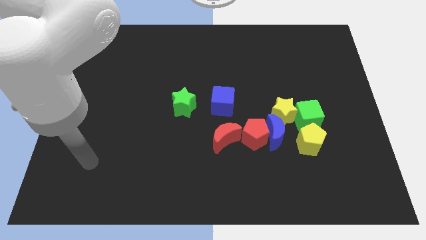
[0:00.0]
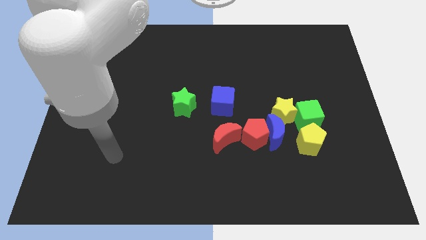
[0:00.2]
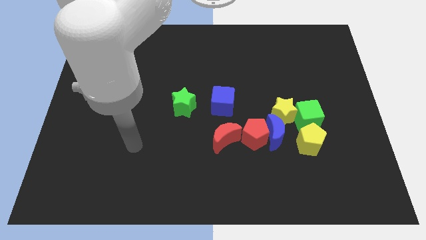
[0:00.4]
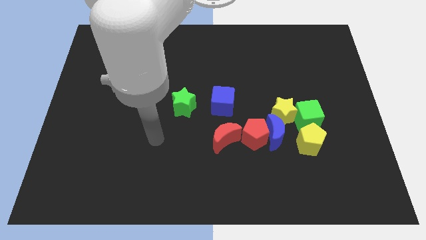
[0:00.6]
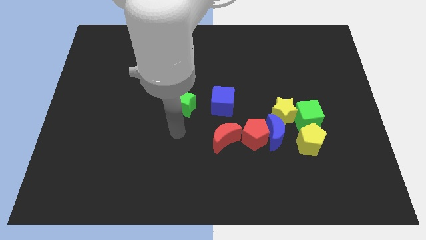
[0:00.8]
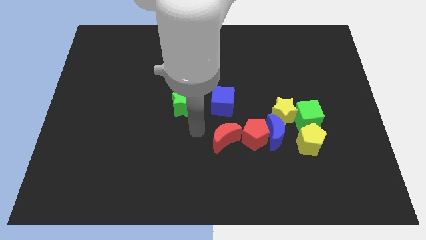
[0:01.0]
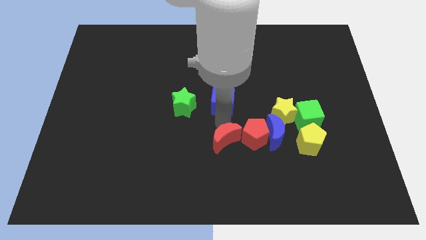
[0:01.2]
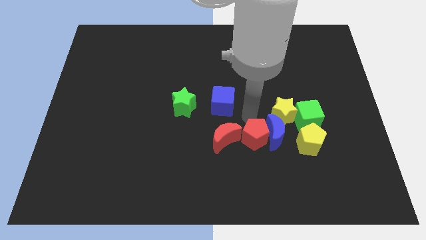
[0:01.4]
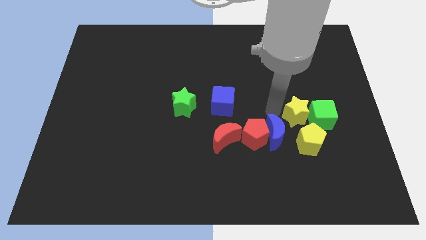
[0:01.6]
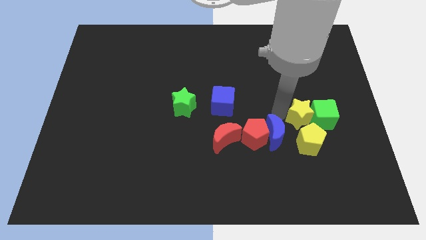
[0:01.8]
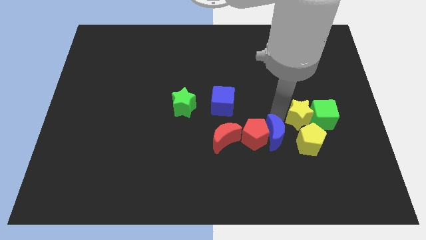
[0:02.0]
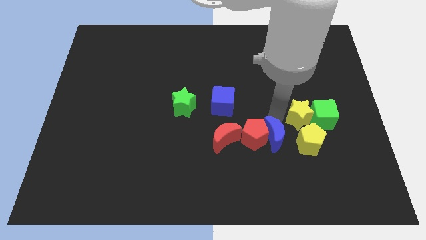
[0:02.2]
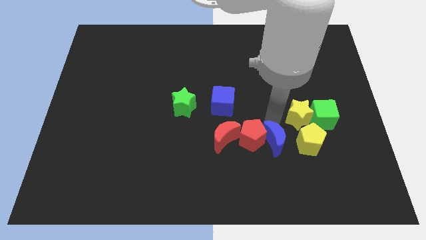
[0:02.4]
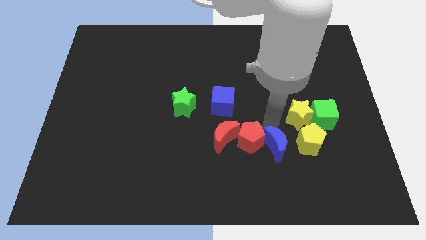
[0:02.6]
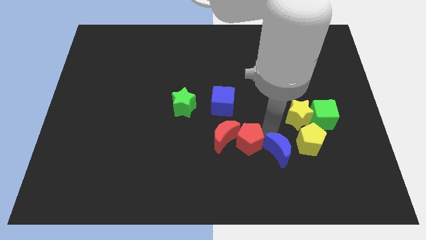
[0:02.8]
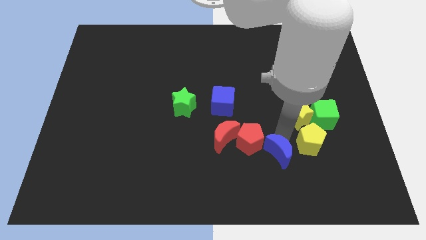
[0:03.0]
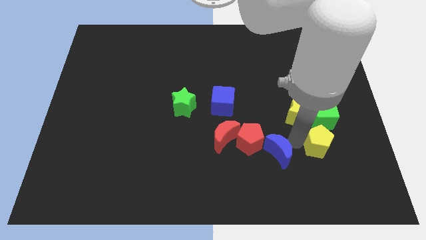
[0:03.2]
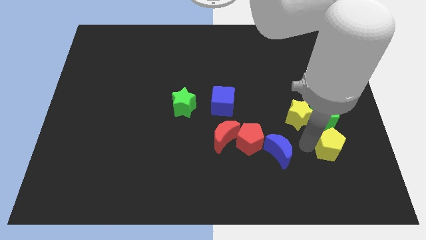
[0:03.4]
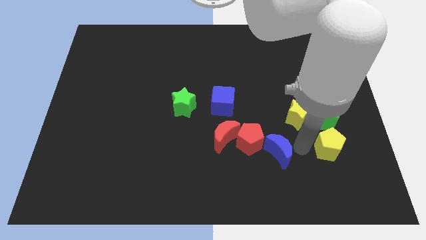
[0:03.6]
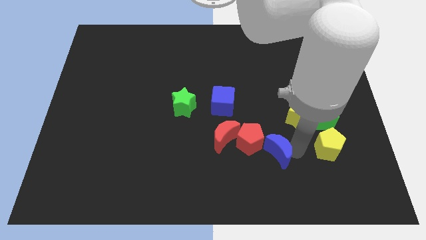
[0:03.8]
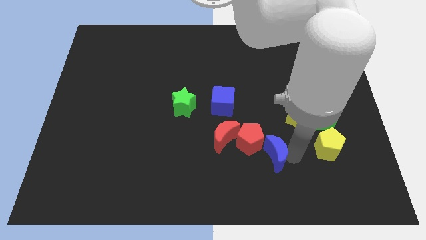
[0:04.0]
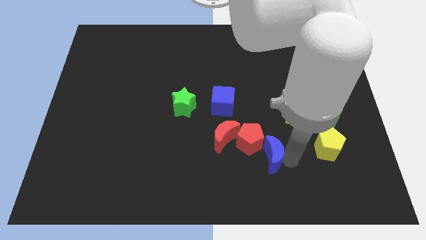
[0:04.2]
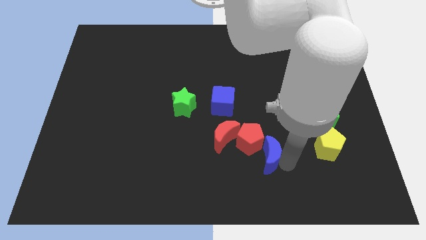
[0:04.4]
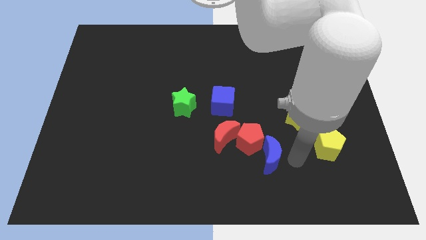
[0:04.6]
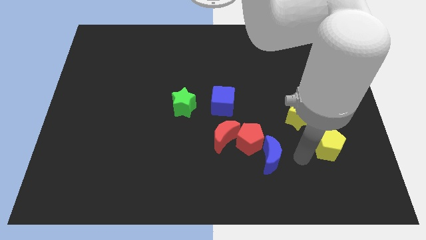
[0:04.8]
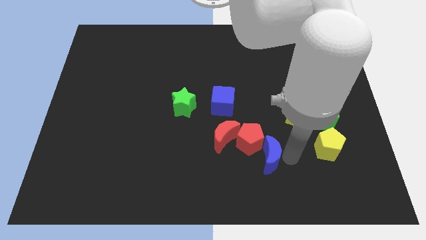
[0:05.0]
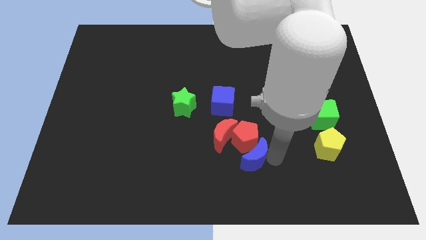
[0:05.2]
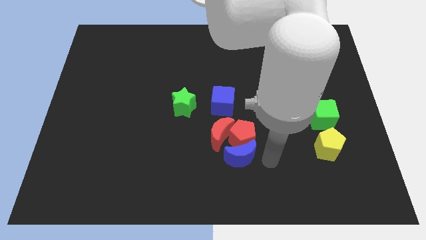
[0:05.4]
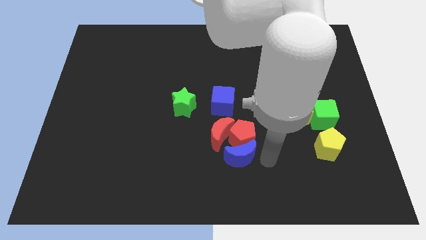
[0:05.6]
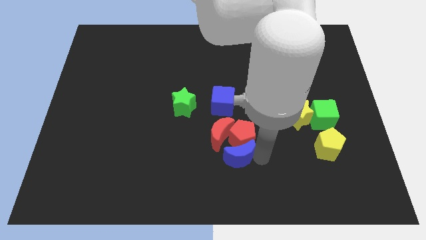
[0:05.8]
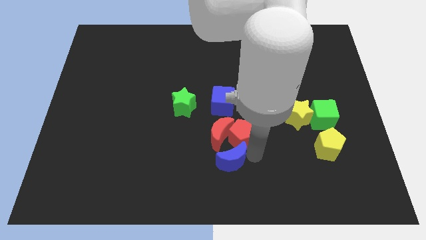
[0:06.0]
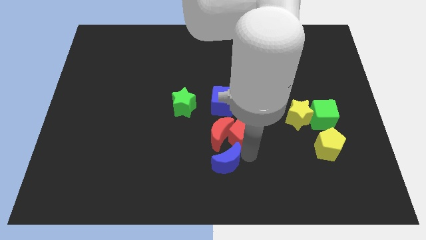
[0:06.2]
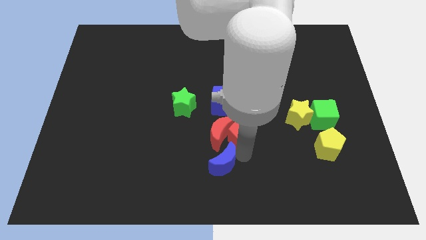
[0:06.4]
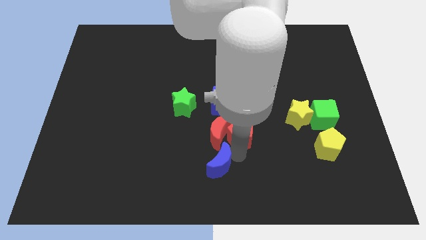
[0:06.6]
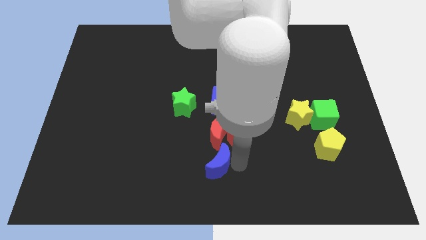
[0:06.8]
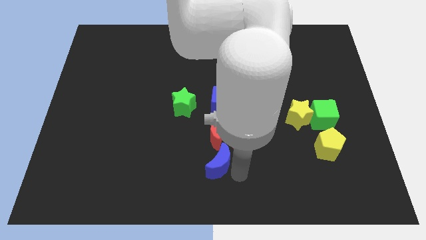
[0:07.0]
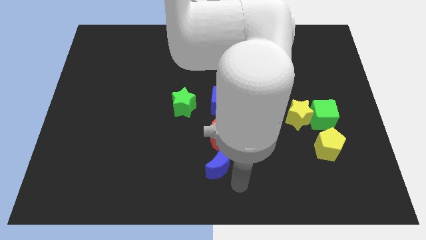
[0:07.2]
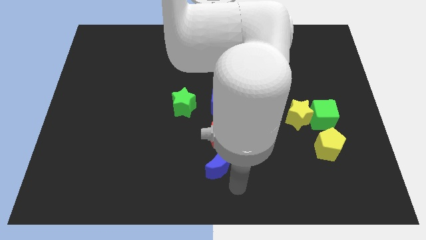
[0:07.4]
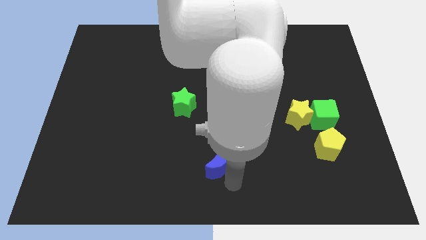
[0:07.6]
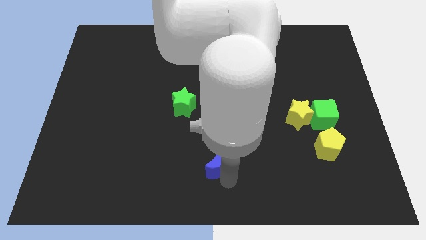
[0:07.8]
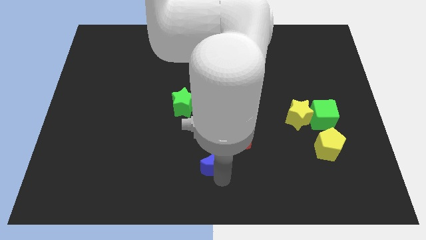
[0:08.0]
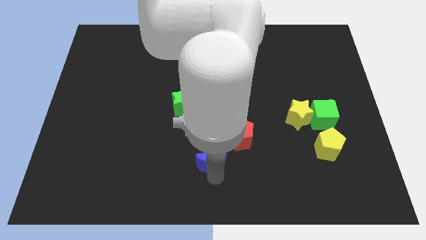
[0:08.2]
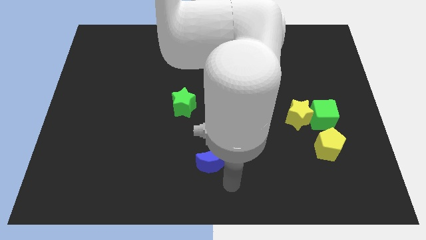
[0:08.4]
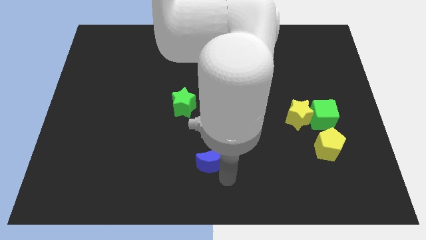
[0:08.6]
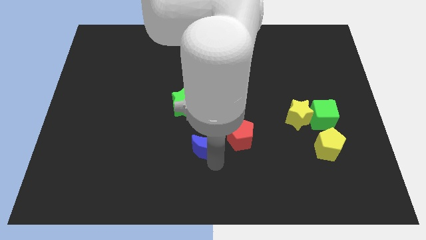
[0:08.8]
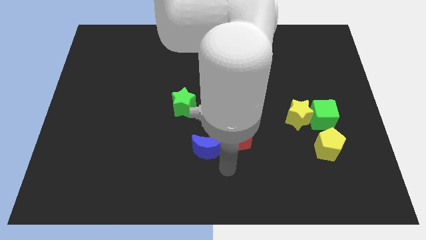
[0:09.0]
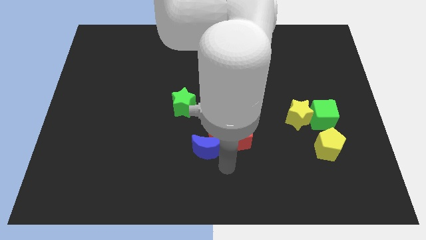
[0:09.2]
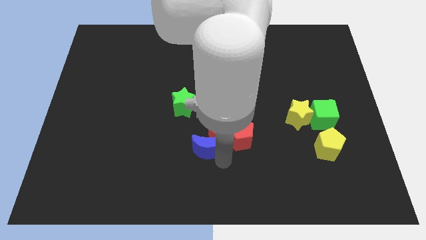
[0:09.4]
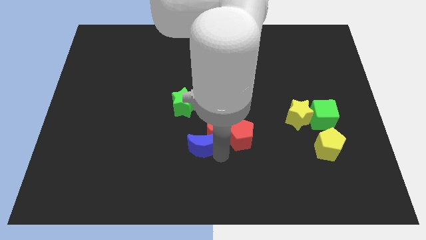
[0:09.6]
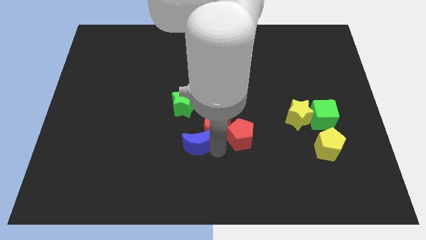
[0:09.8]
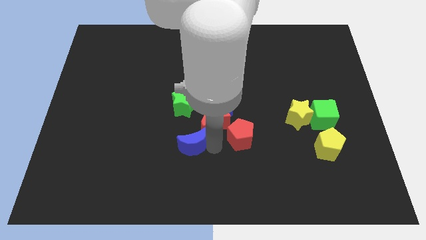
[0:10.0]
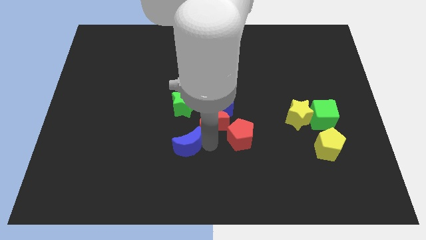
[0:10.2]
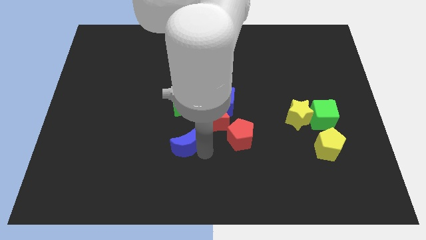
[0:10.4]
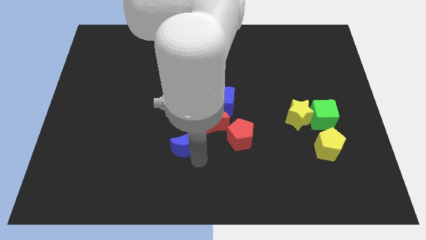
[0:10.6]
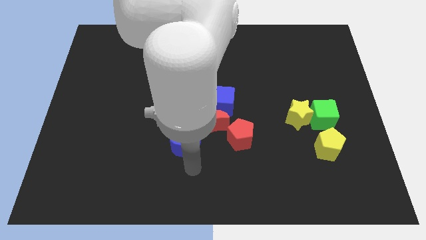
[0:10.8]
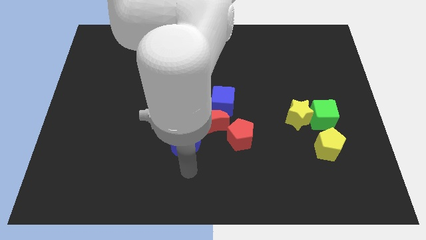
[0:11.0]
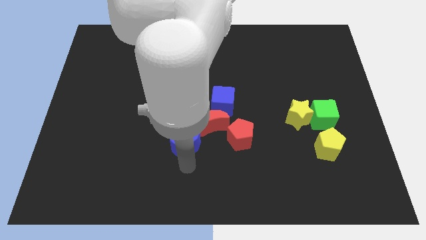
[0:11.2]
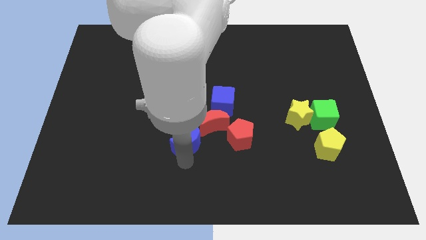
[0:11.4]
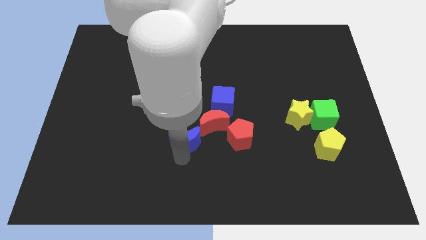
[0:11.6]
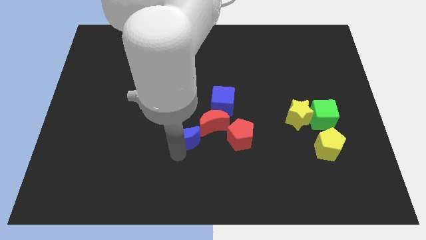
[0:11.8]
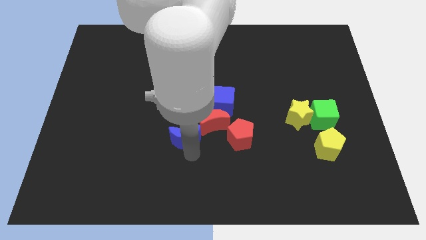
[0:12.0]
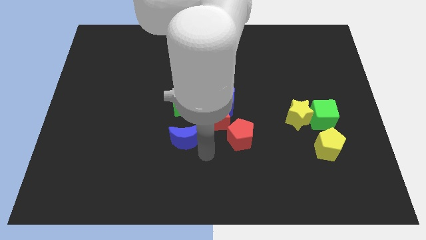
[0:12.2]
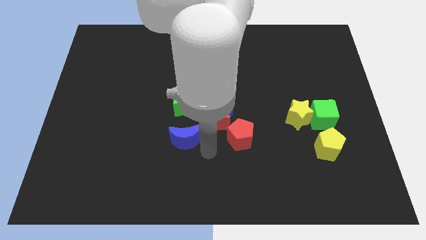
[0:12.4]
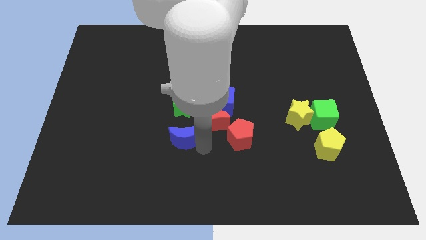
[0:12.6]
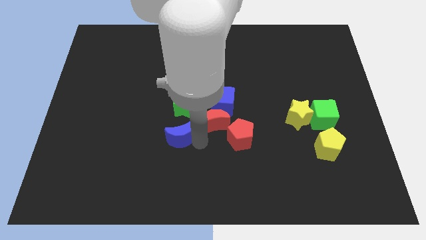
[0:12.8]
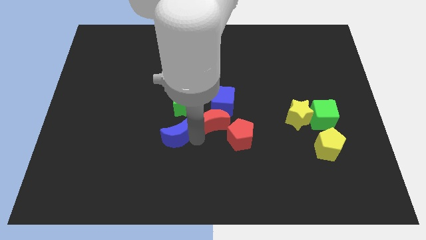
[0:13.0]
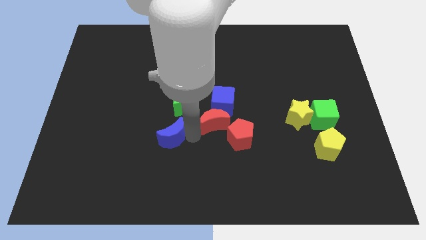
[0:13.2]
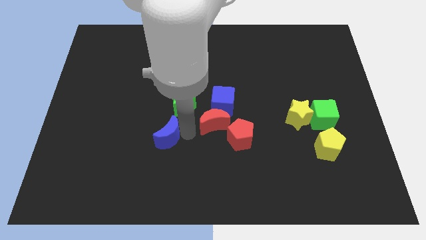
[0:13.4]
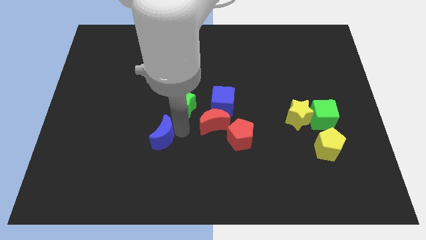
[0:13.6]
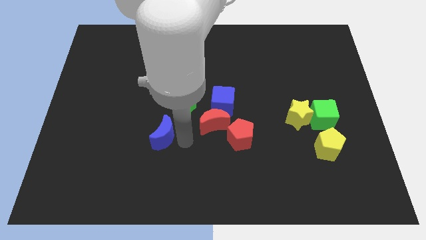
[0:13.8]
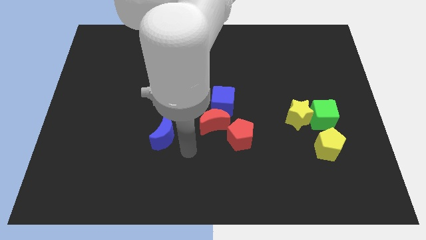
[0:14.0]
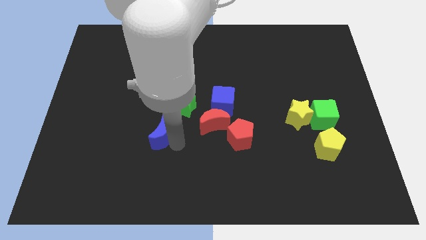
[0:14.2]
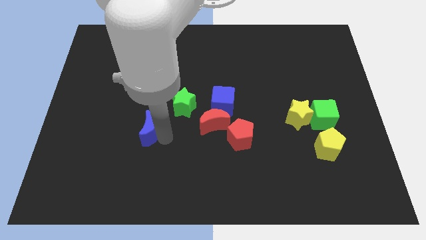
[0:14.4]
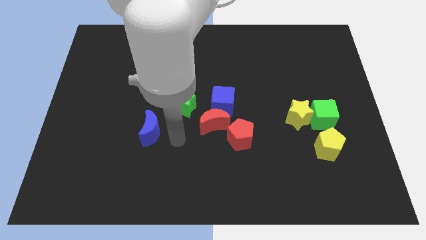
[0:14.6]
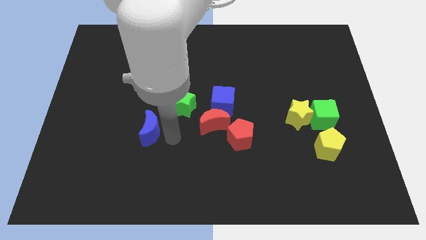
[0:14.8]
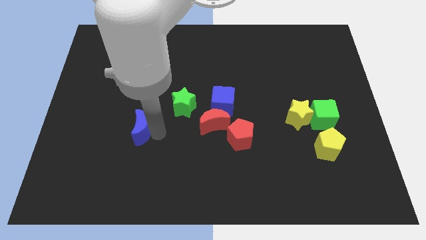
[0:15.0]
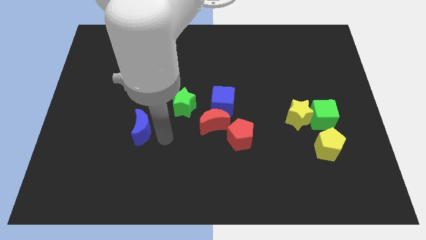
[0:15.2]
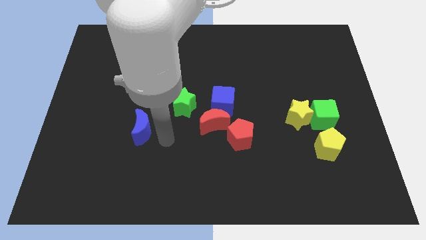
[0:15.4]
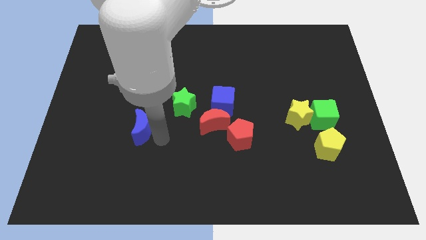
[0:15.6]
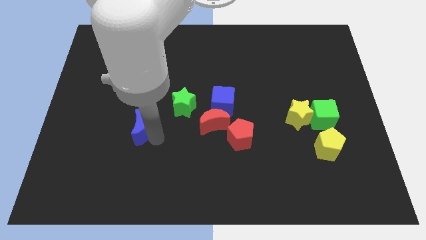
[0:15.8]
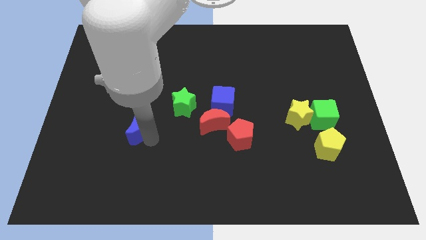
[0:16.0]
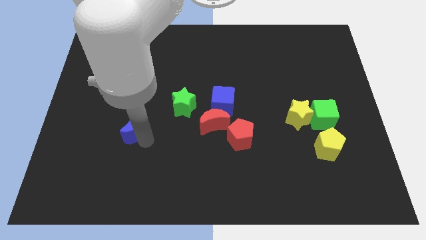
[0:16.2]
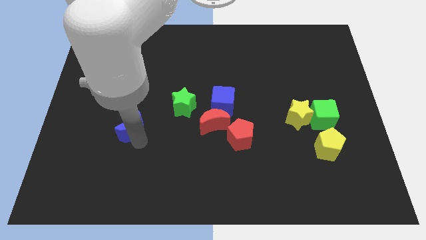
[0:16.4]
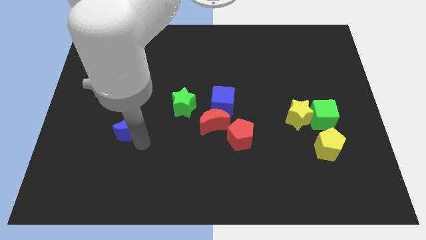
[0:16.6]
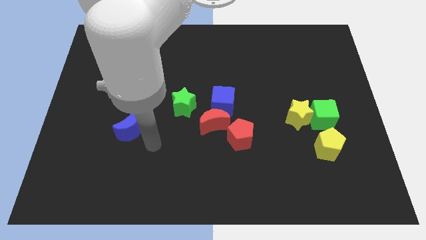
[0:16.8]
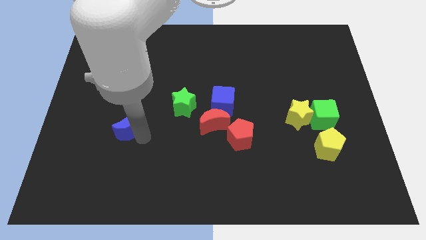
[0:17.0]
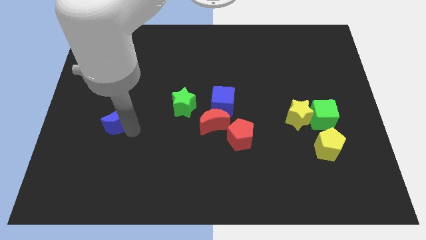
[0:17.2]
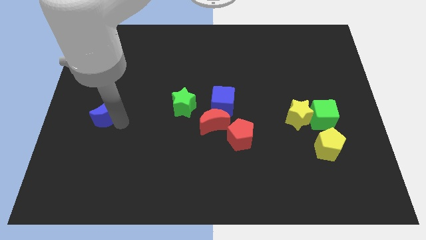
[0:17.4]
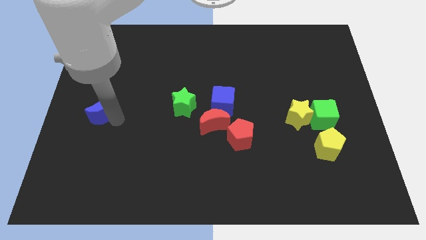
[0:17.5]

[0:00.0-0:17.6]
move the blue moon to the left side
